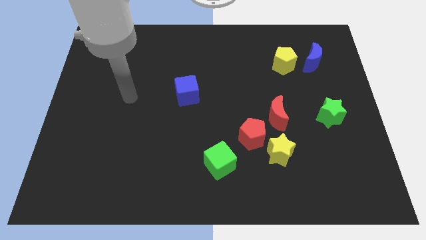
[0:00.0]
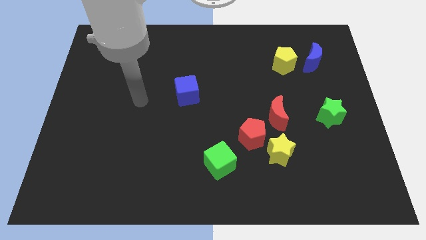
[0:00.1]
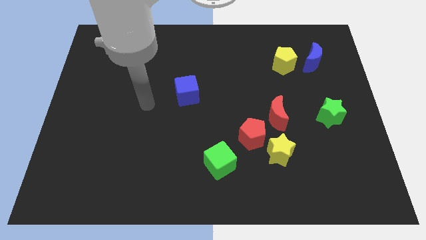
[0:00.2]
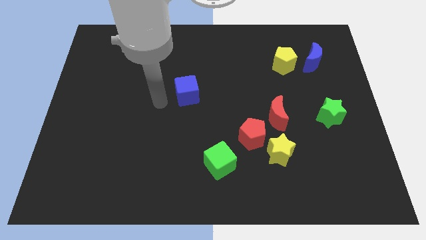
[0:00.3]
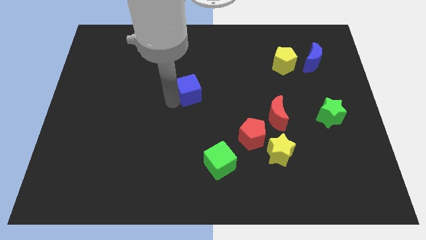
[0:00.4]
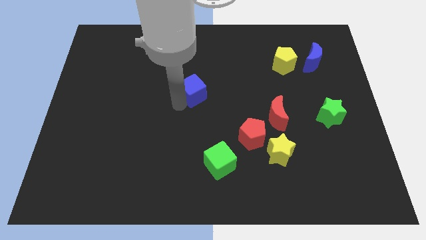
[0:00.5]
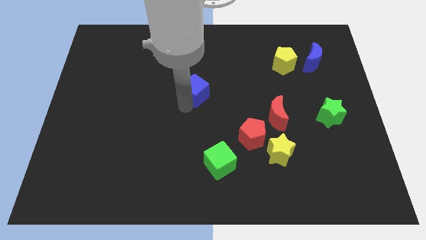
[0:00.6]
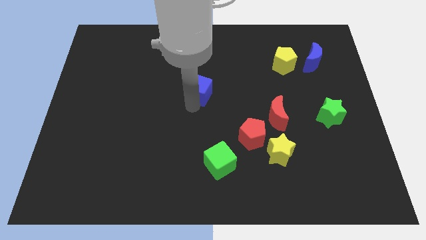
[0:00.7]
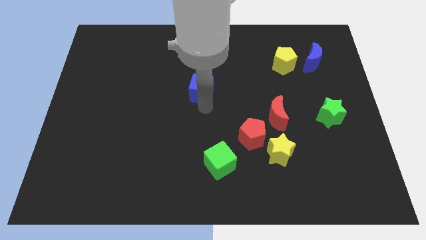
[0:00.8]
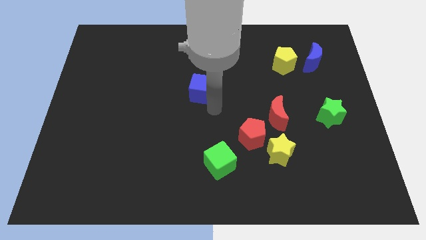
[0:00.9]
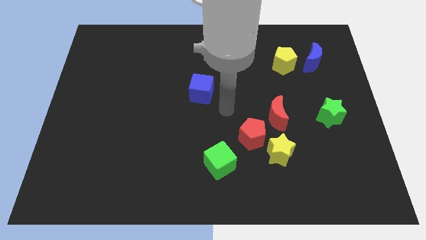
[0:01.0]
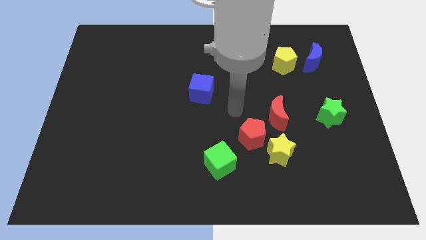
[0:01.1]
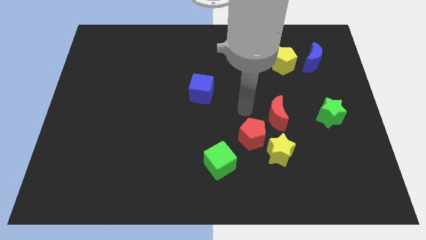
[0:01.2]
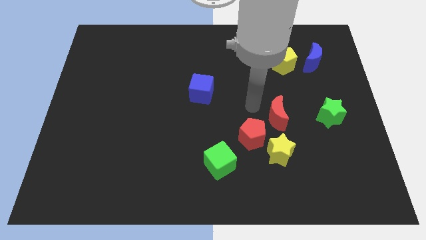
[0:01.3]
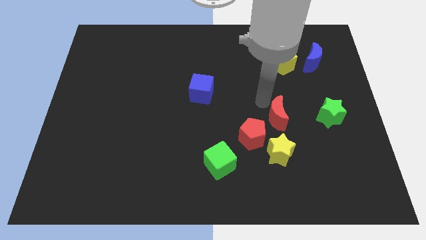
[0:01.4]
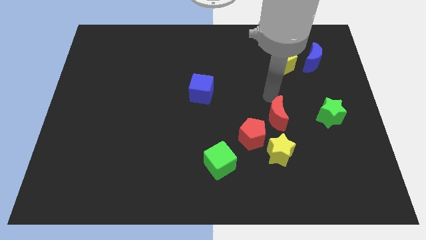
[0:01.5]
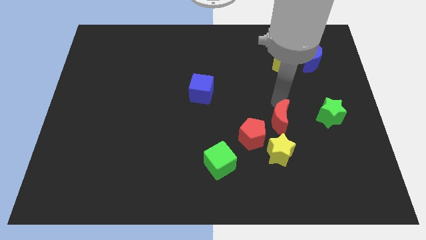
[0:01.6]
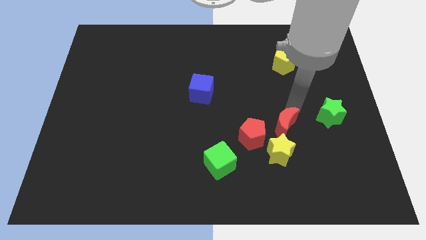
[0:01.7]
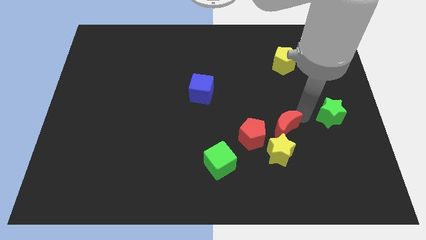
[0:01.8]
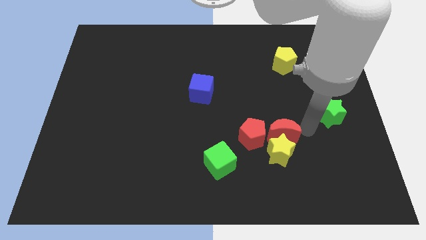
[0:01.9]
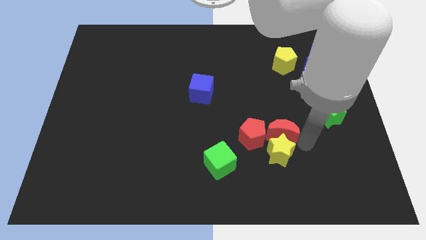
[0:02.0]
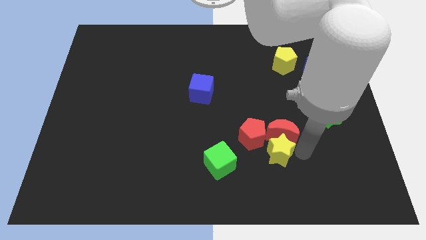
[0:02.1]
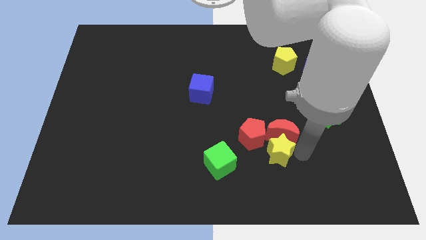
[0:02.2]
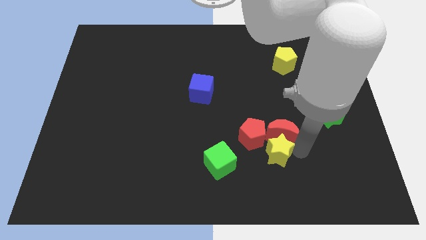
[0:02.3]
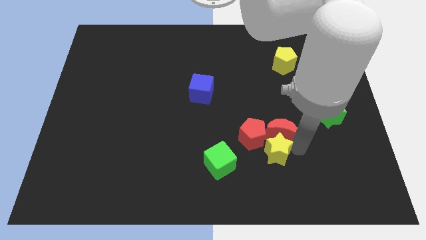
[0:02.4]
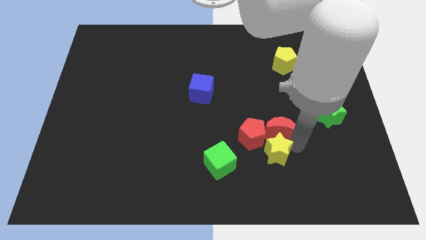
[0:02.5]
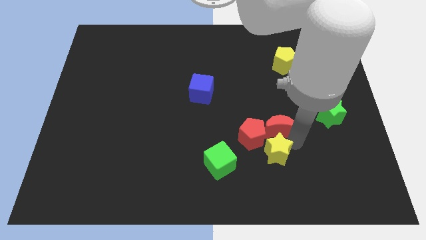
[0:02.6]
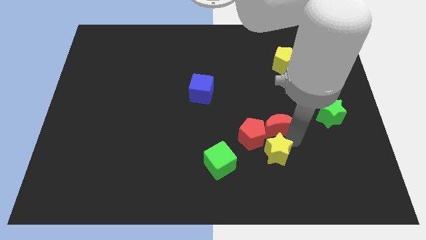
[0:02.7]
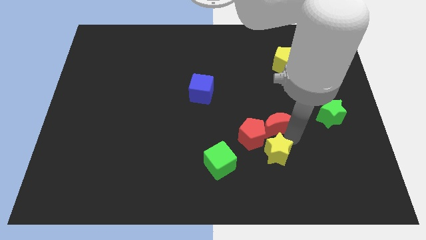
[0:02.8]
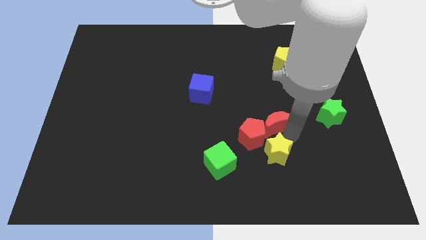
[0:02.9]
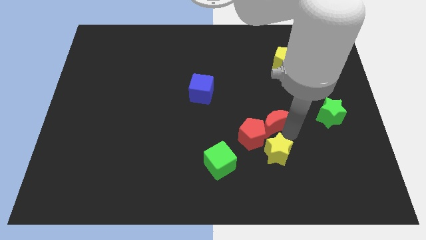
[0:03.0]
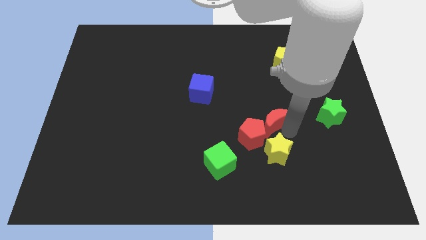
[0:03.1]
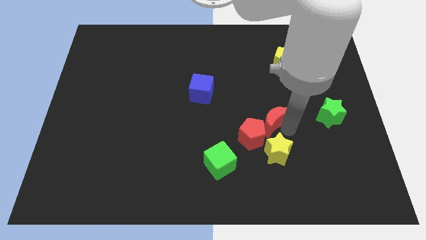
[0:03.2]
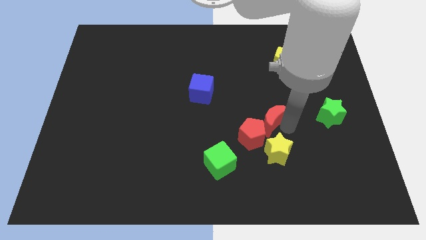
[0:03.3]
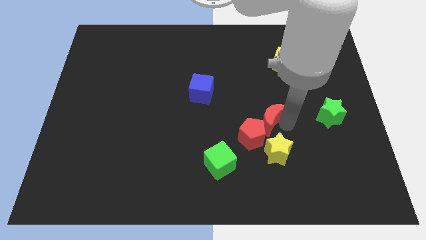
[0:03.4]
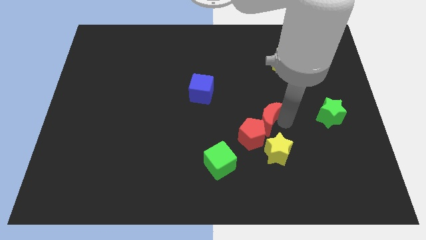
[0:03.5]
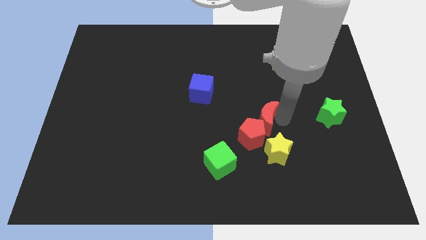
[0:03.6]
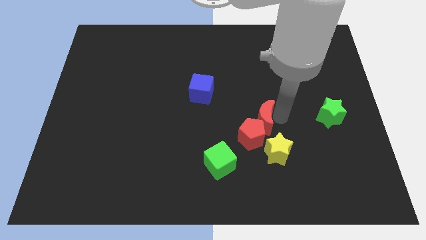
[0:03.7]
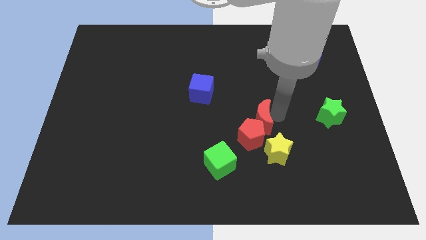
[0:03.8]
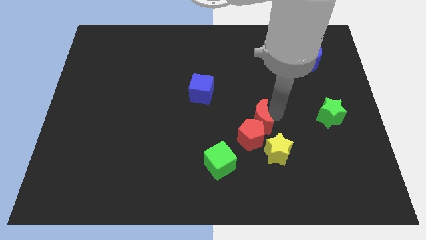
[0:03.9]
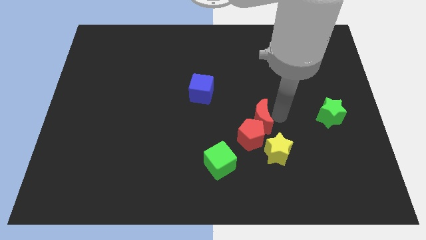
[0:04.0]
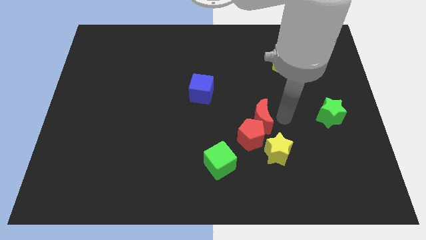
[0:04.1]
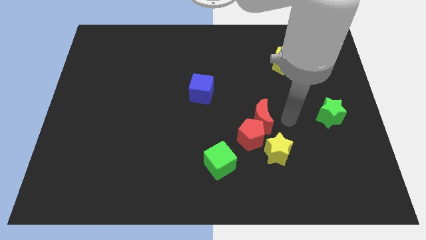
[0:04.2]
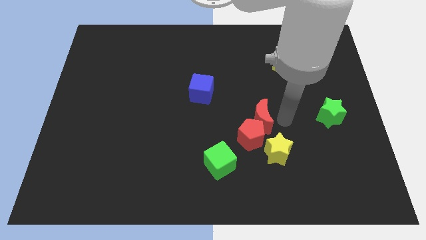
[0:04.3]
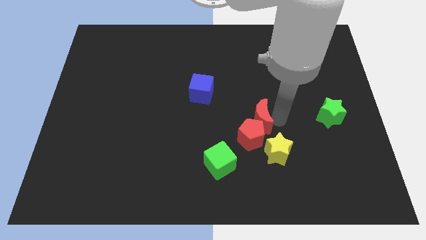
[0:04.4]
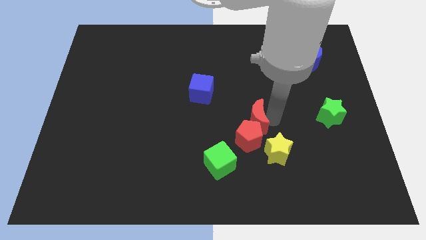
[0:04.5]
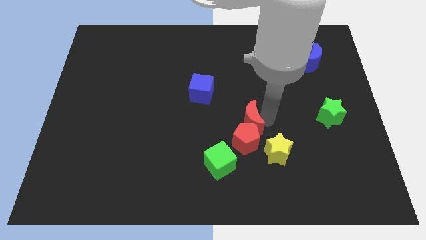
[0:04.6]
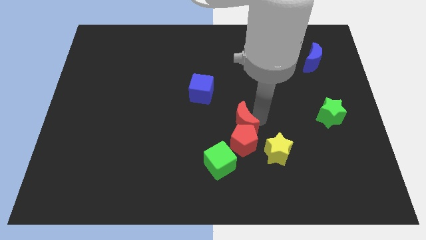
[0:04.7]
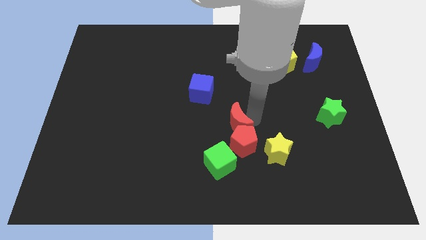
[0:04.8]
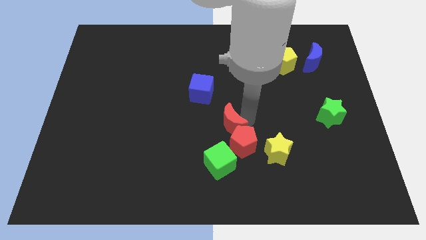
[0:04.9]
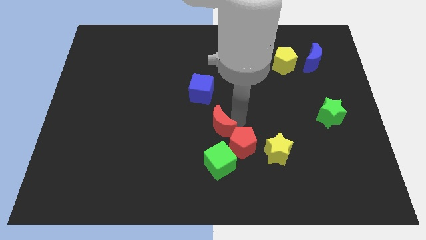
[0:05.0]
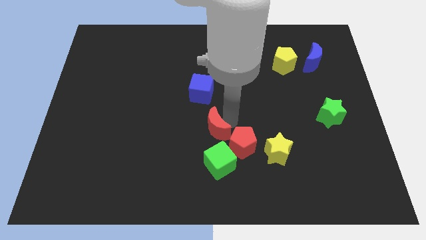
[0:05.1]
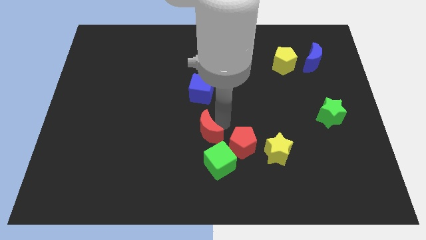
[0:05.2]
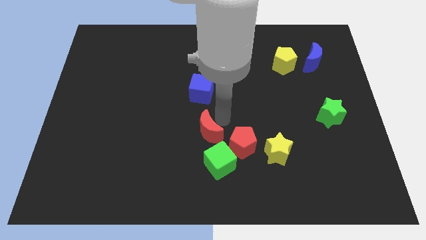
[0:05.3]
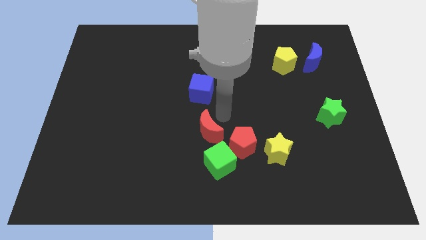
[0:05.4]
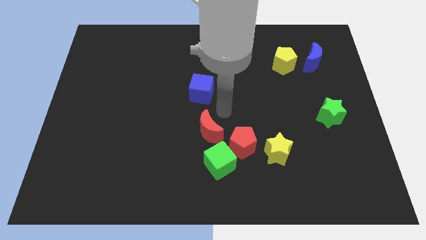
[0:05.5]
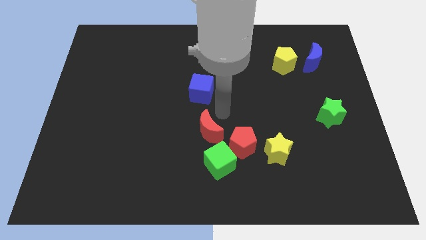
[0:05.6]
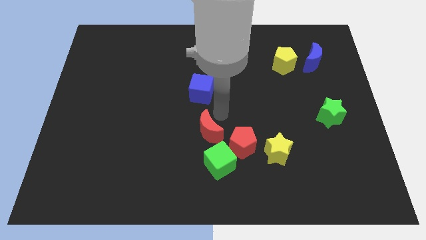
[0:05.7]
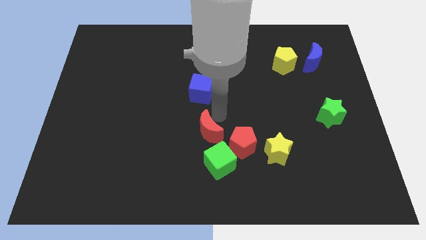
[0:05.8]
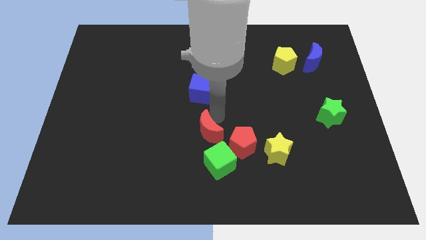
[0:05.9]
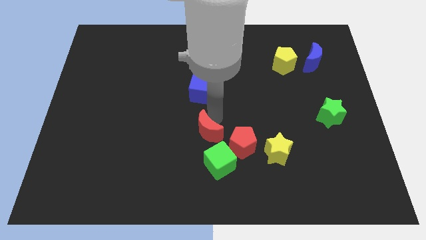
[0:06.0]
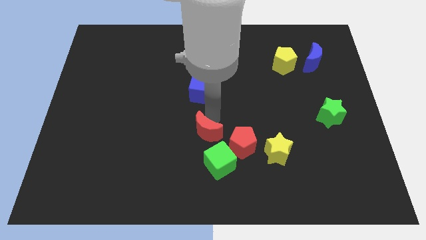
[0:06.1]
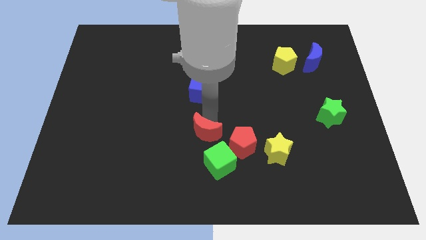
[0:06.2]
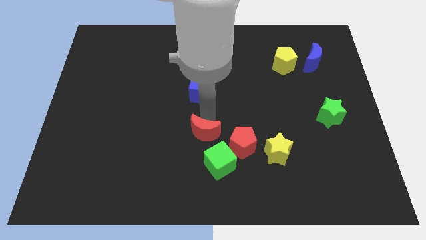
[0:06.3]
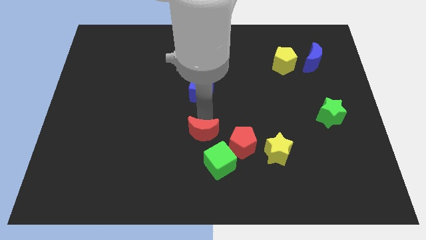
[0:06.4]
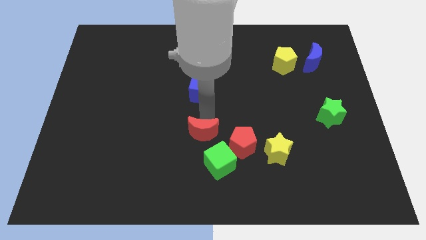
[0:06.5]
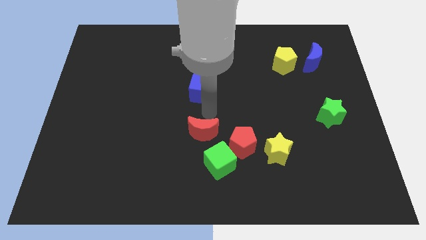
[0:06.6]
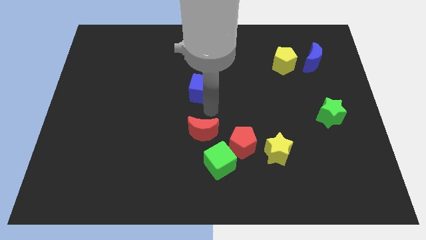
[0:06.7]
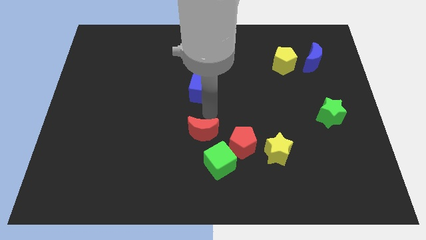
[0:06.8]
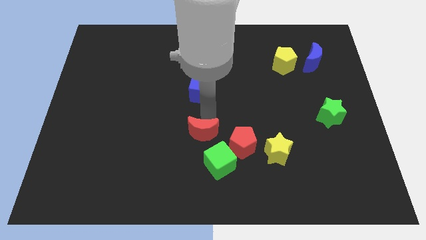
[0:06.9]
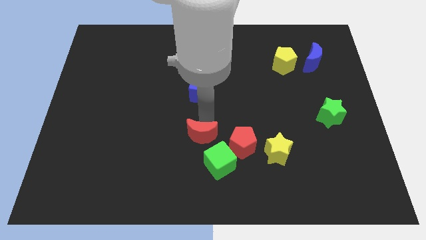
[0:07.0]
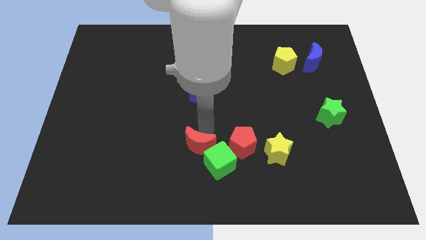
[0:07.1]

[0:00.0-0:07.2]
slide the red moon left of the green cube

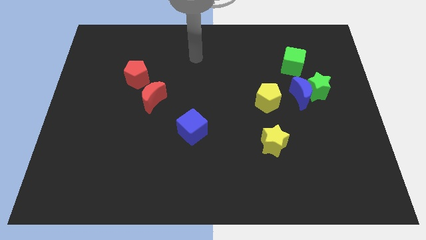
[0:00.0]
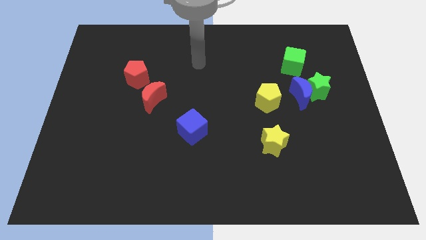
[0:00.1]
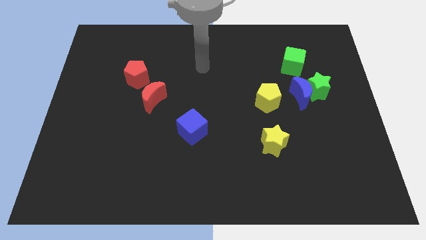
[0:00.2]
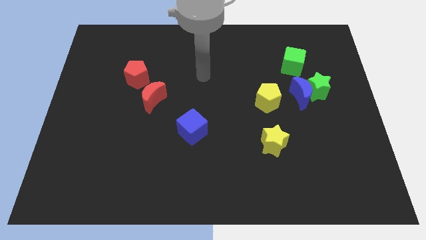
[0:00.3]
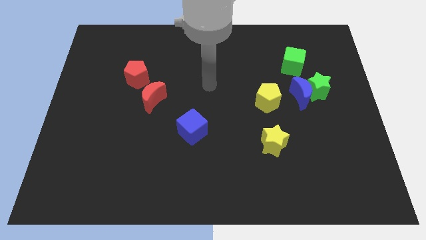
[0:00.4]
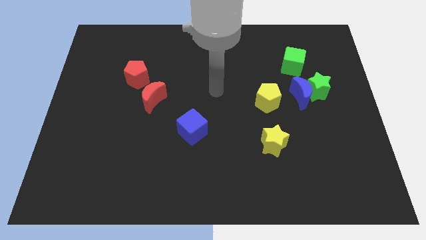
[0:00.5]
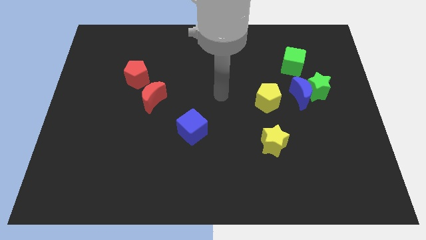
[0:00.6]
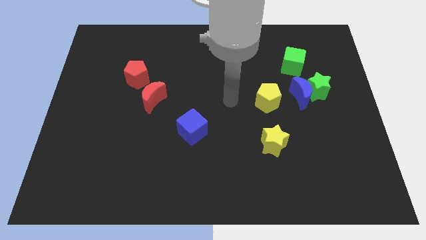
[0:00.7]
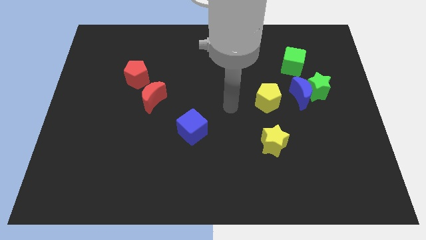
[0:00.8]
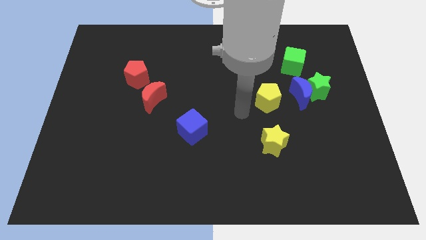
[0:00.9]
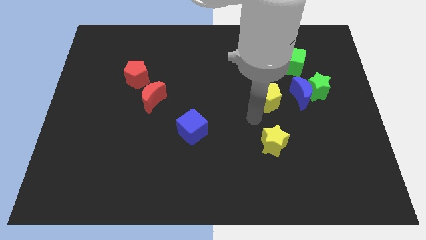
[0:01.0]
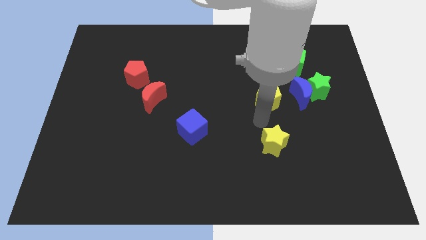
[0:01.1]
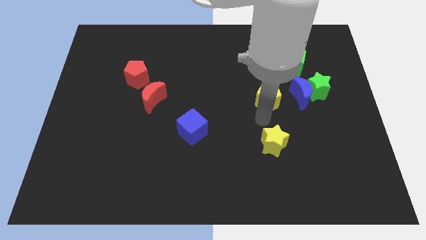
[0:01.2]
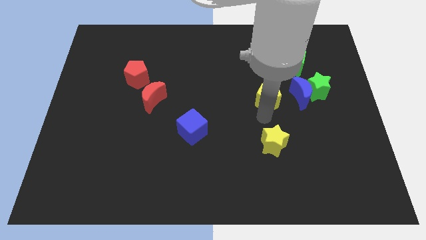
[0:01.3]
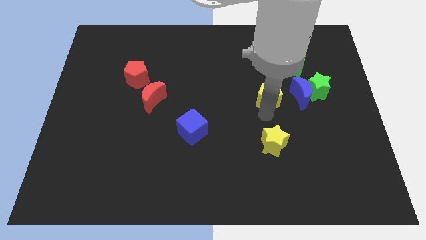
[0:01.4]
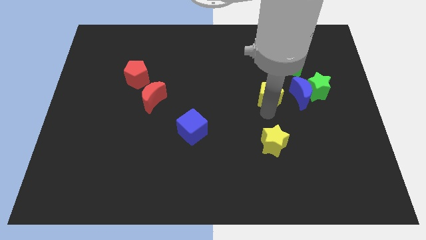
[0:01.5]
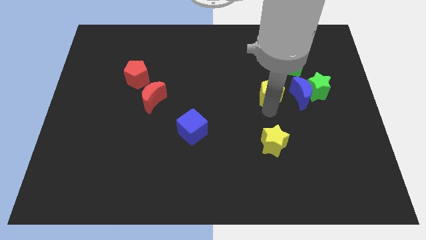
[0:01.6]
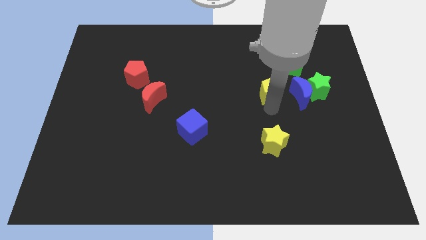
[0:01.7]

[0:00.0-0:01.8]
push the yellow pentagon to the bottom left of the green cube
